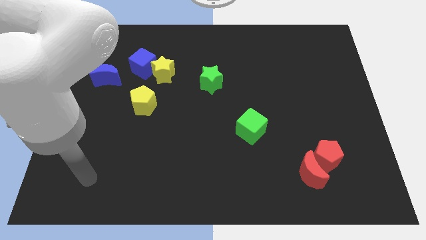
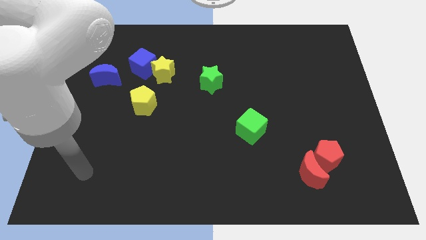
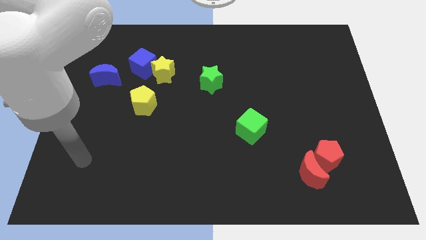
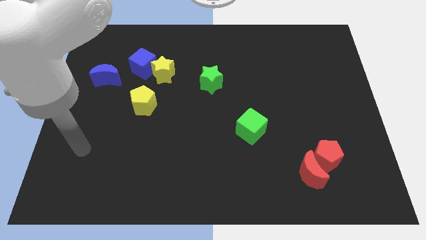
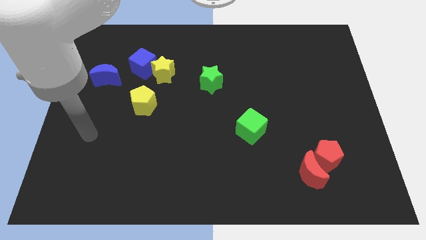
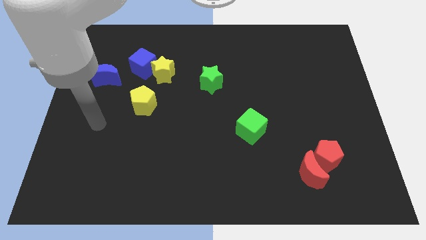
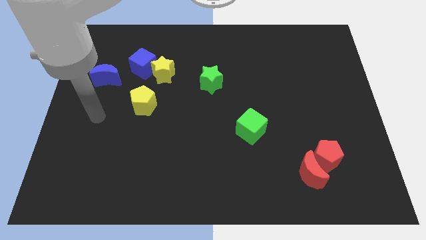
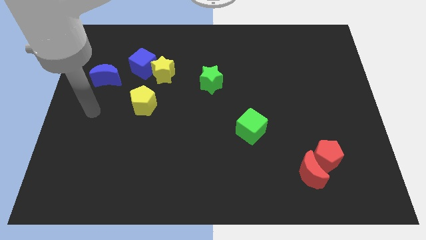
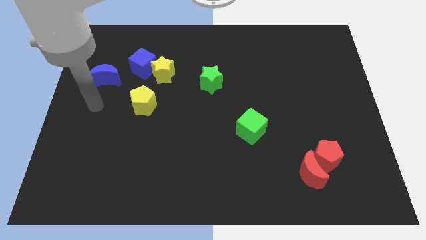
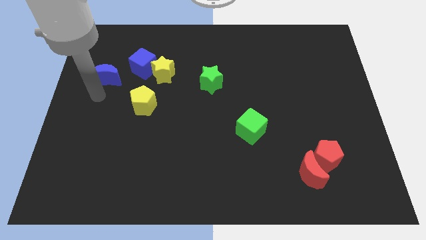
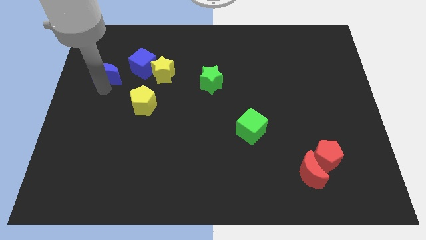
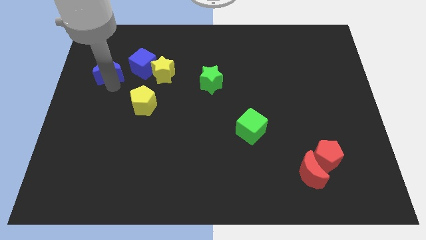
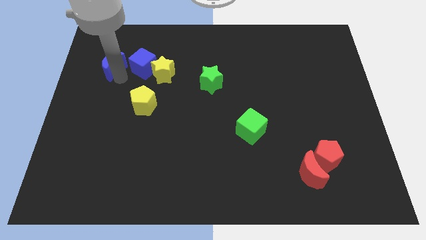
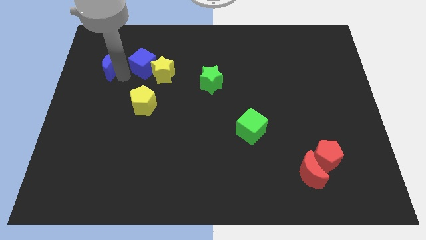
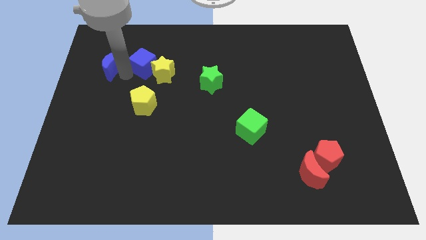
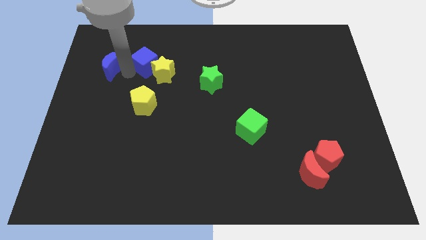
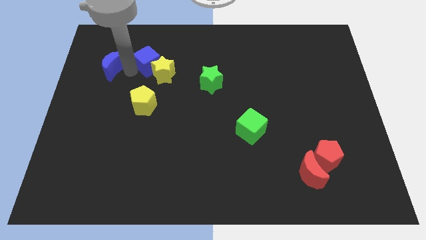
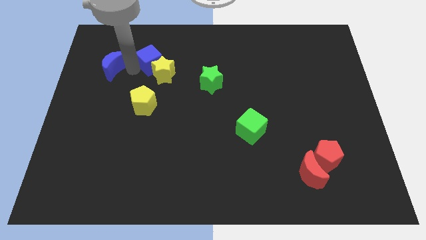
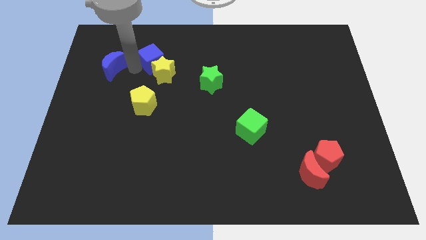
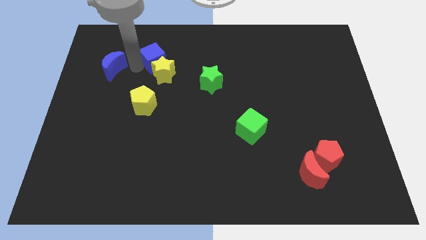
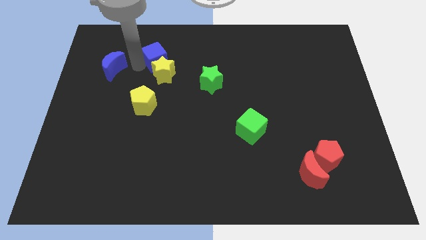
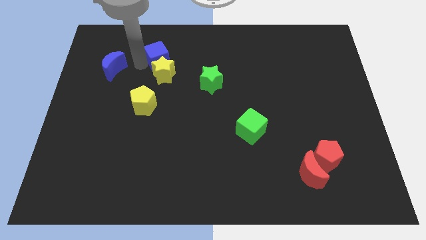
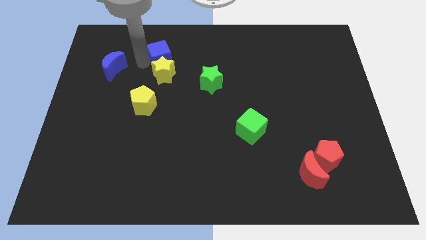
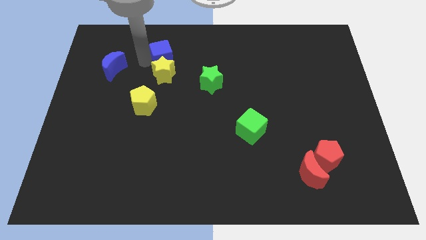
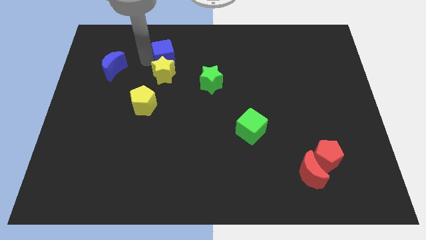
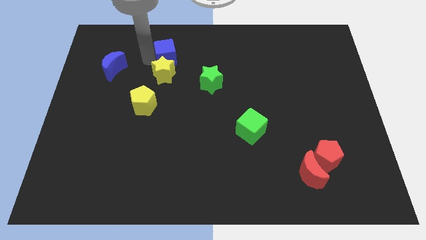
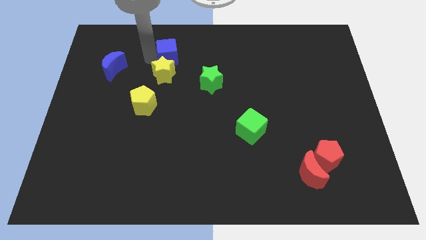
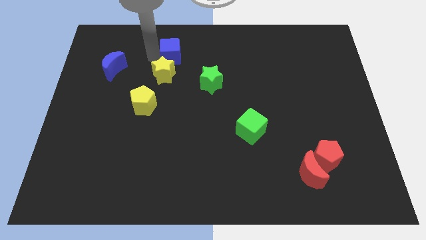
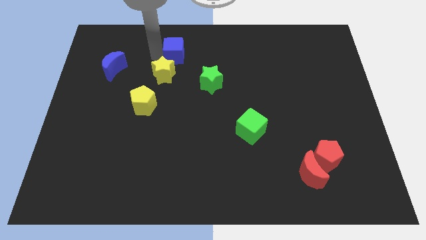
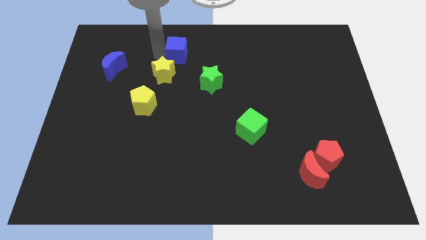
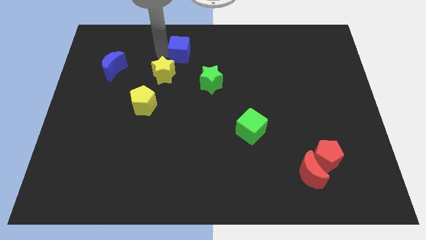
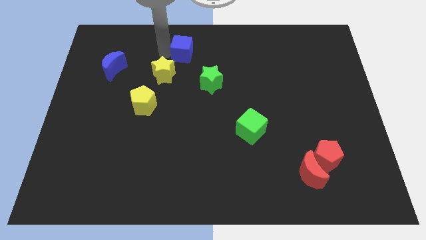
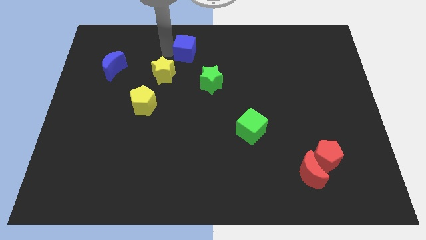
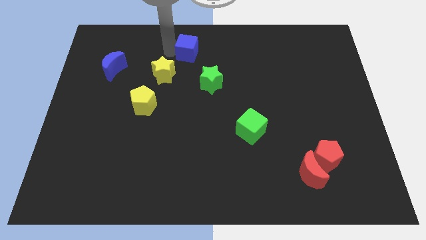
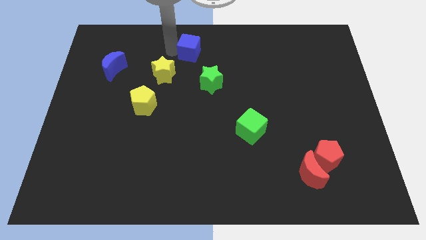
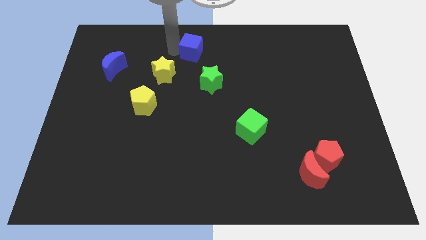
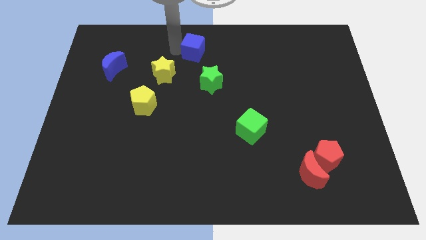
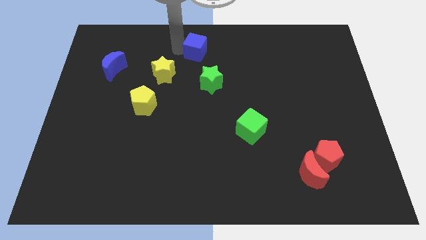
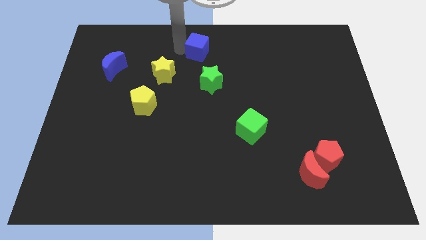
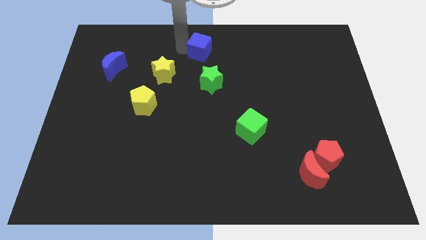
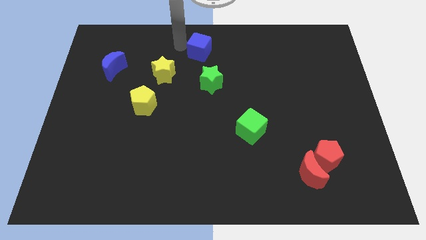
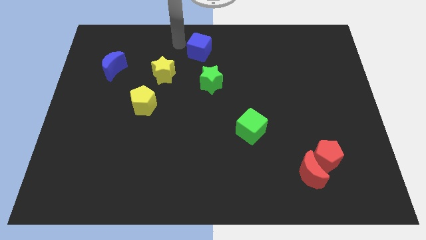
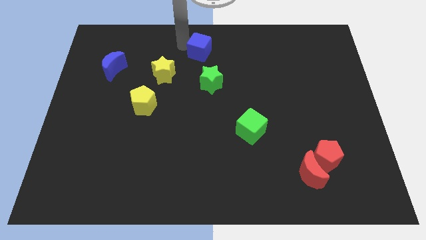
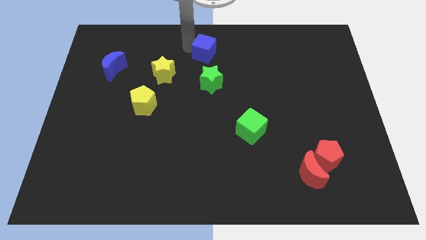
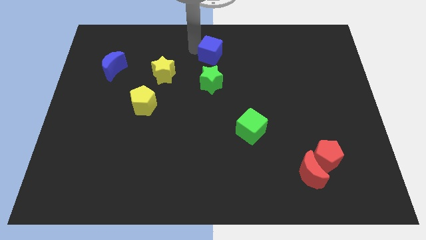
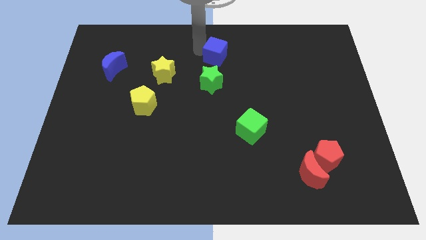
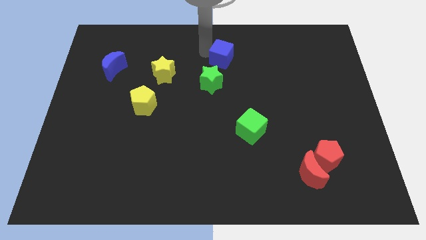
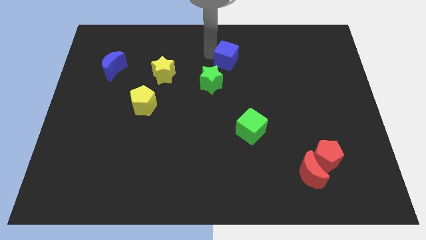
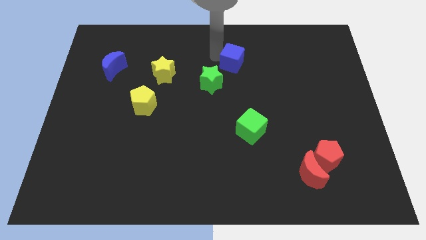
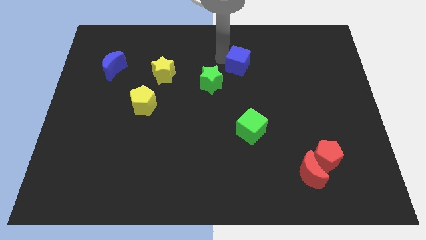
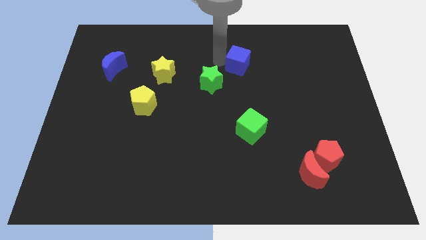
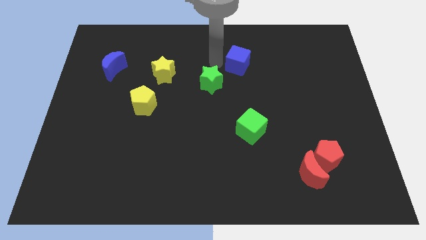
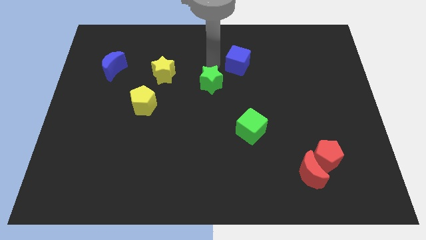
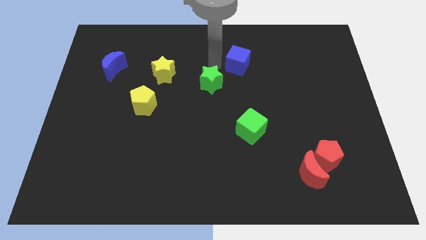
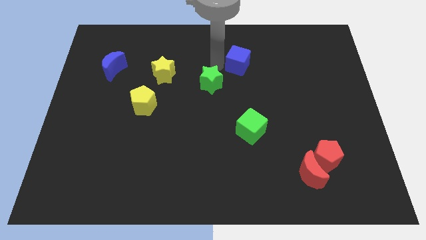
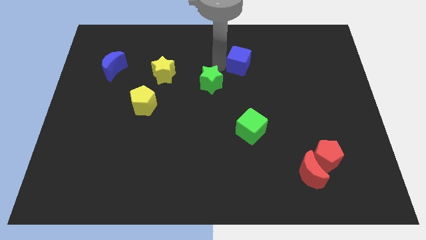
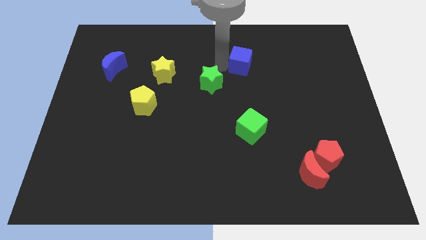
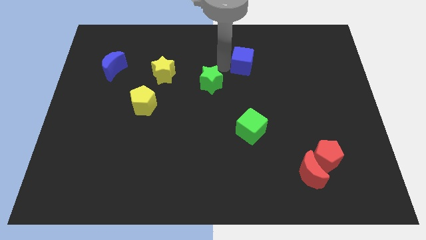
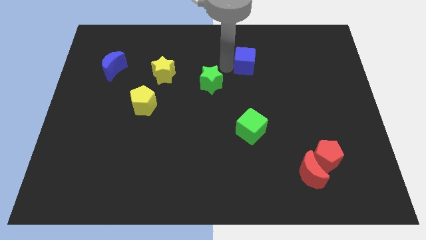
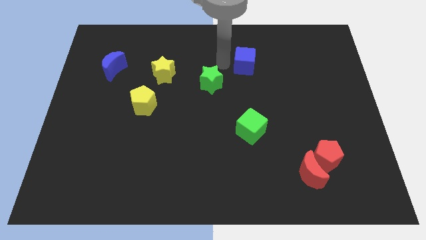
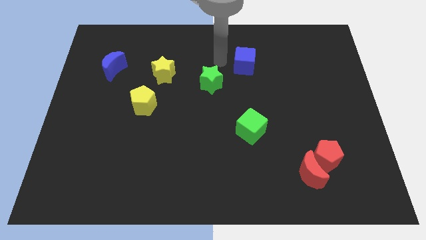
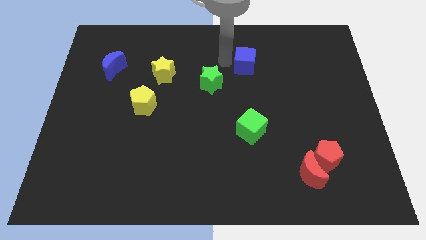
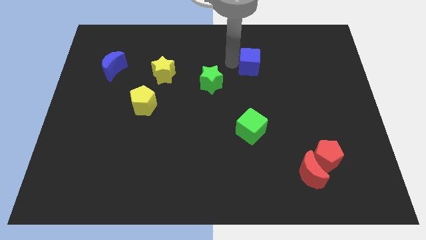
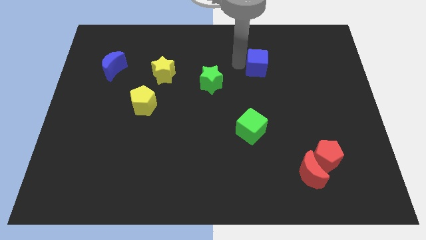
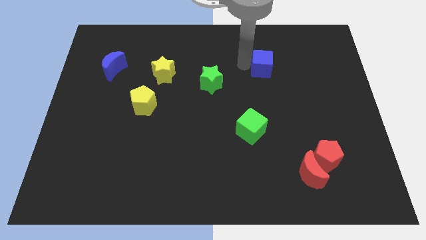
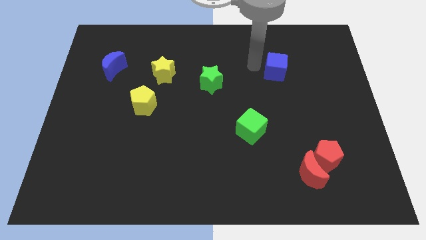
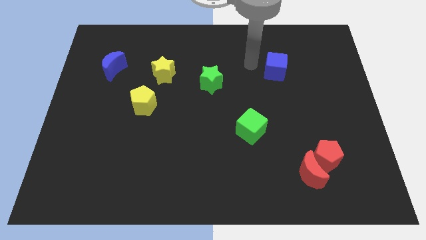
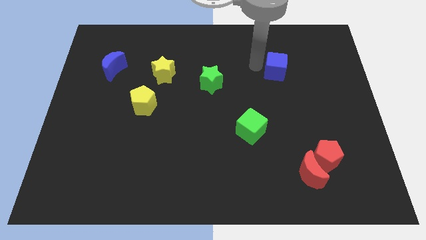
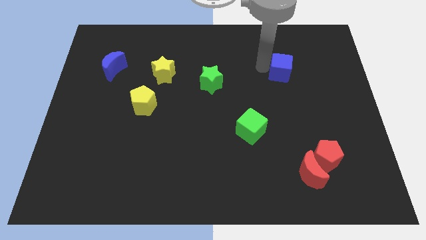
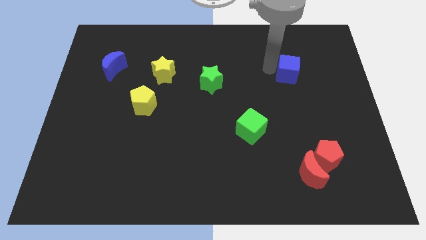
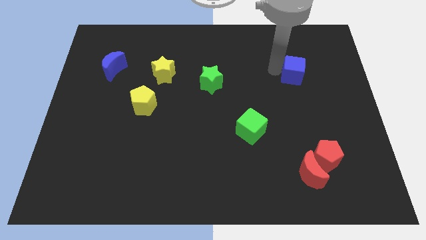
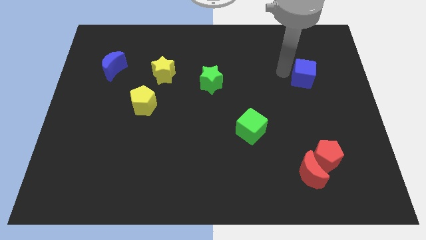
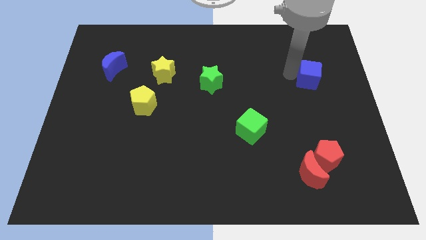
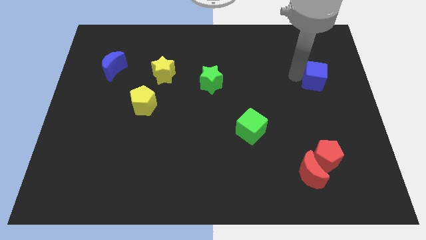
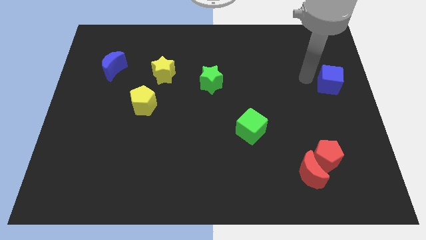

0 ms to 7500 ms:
put the blue cube to the right side of the board
